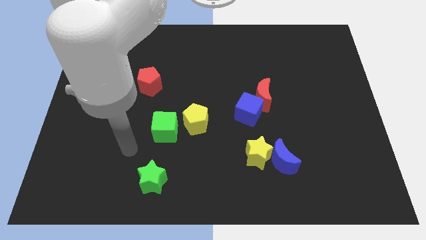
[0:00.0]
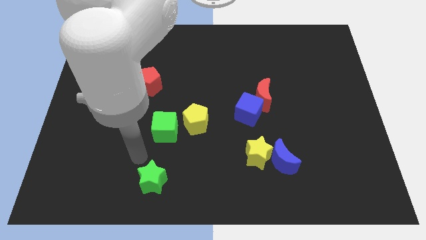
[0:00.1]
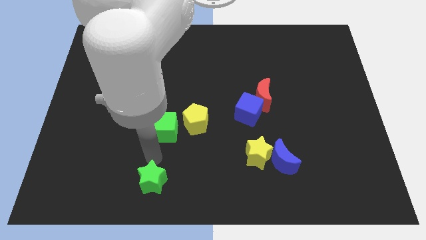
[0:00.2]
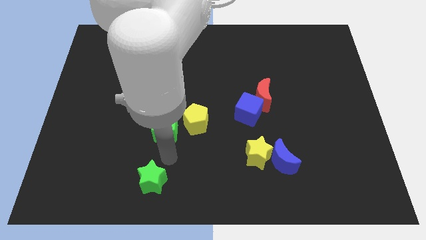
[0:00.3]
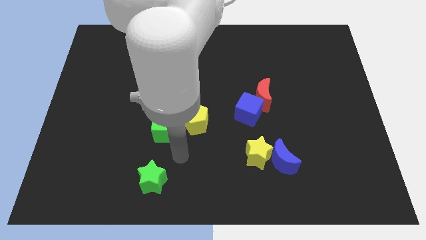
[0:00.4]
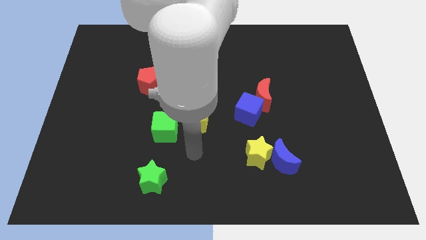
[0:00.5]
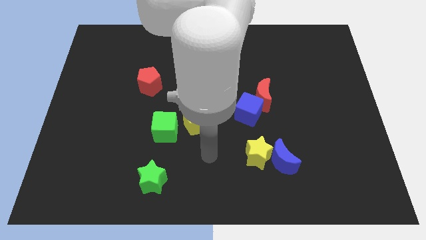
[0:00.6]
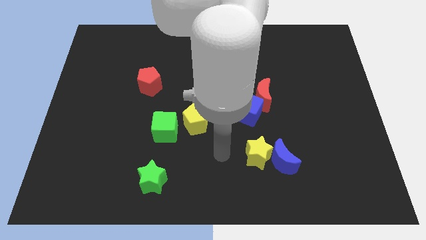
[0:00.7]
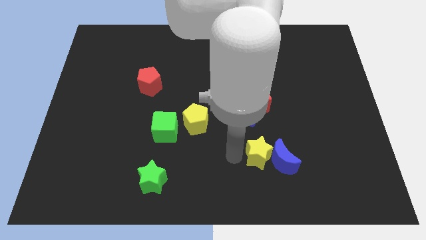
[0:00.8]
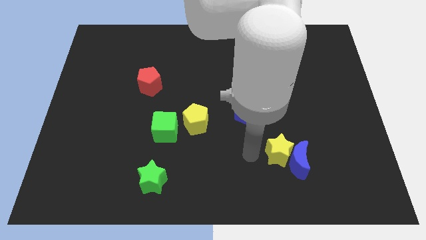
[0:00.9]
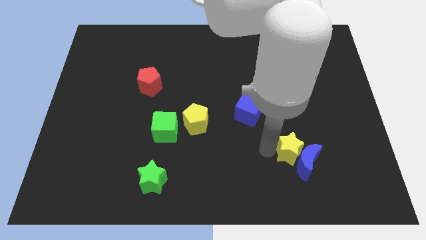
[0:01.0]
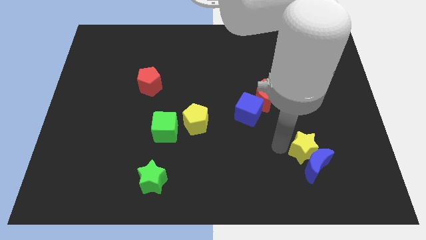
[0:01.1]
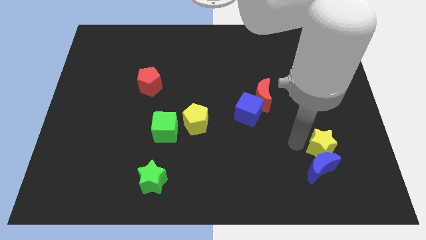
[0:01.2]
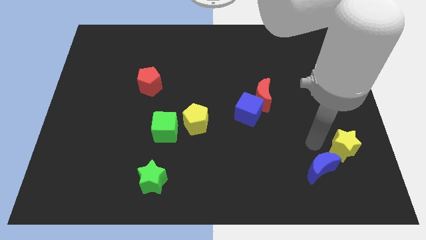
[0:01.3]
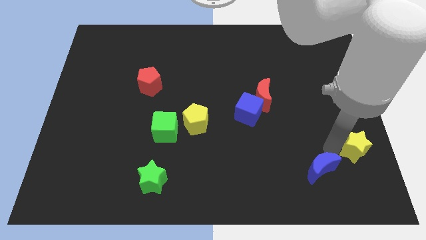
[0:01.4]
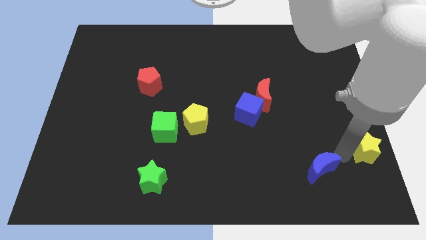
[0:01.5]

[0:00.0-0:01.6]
move the blue moon away from the yellow star

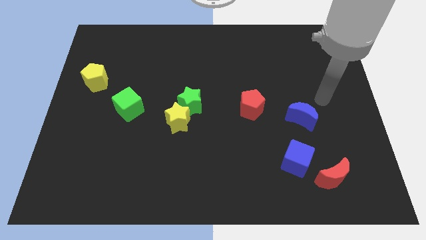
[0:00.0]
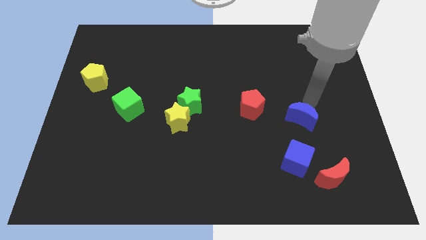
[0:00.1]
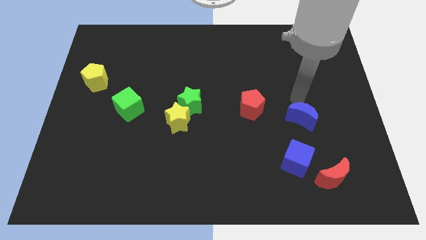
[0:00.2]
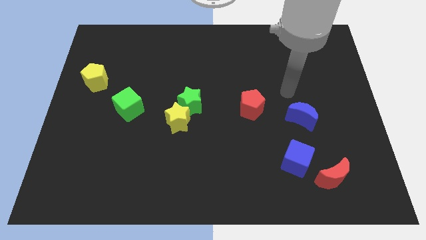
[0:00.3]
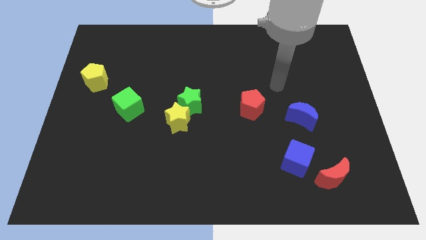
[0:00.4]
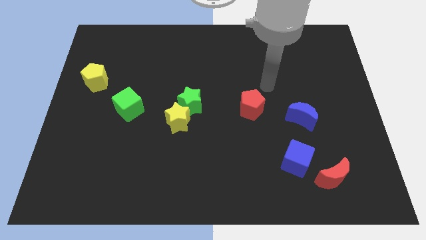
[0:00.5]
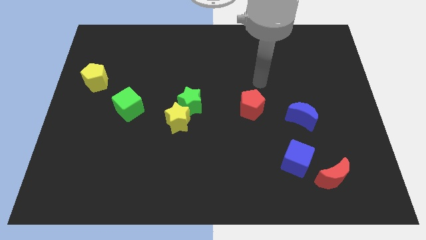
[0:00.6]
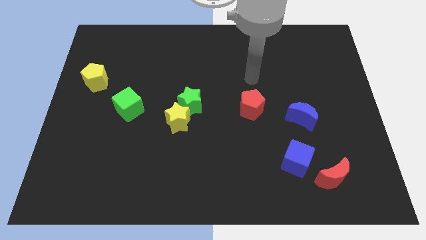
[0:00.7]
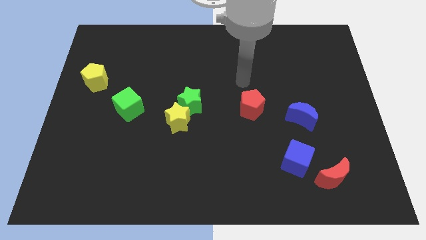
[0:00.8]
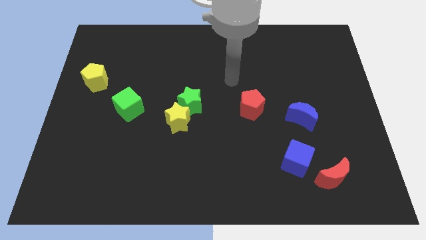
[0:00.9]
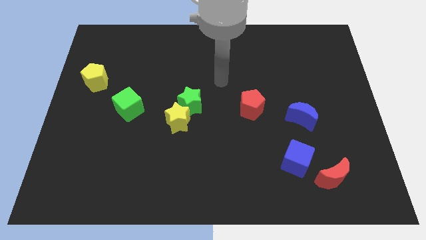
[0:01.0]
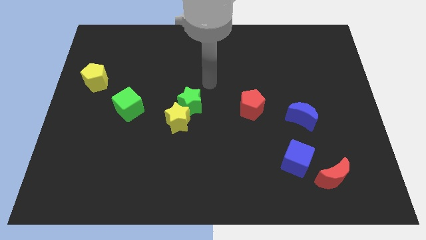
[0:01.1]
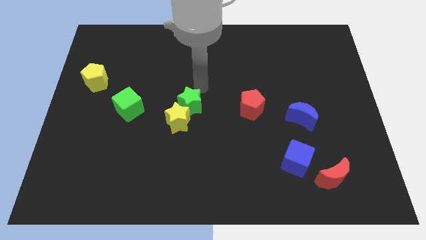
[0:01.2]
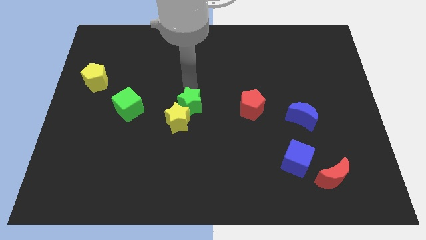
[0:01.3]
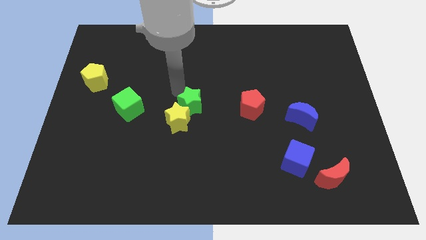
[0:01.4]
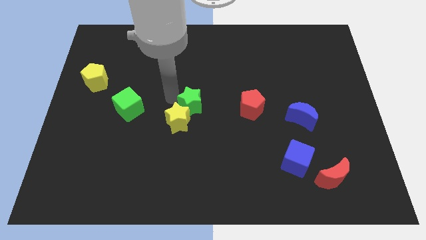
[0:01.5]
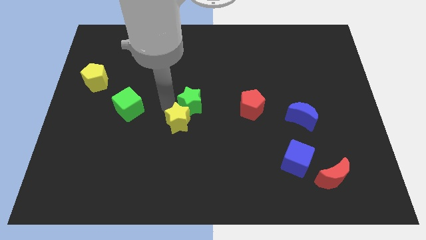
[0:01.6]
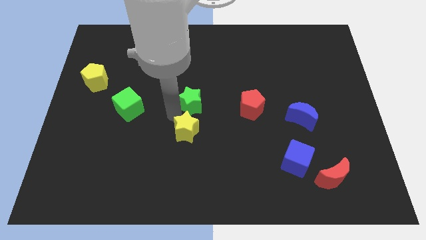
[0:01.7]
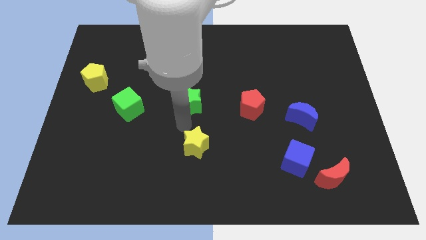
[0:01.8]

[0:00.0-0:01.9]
pull the green star apart from the yellow star

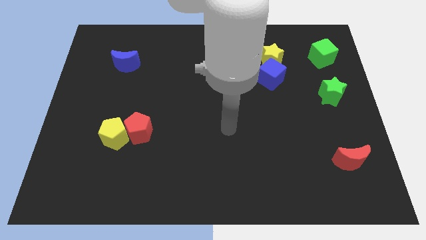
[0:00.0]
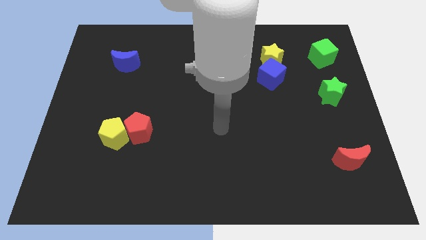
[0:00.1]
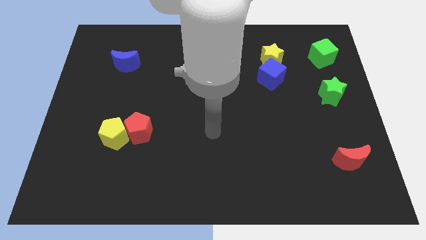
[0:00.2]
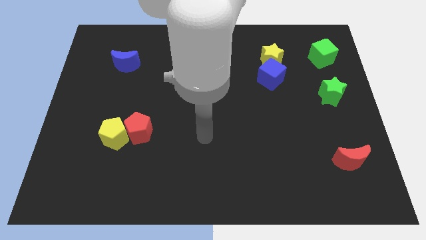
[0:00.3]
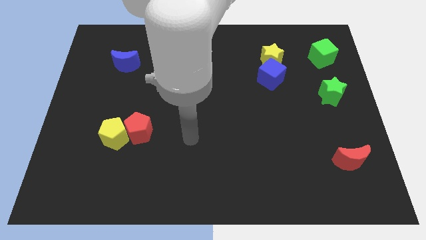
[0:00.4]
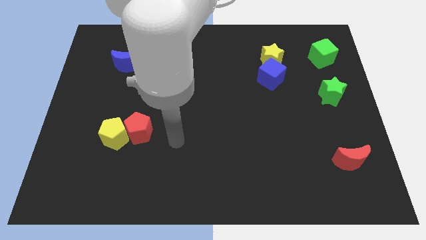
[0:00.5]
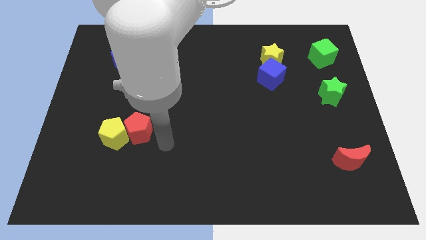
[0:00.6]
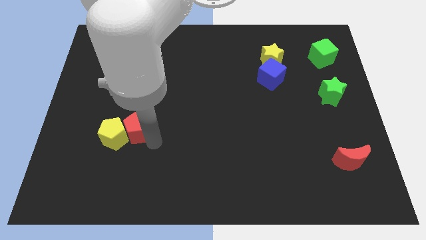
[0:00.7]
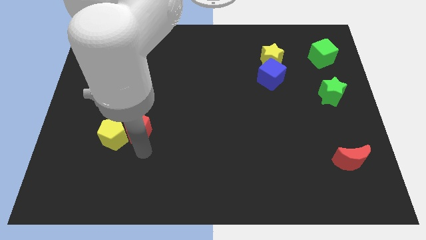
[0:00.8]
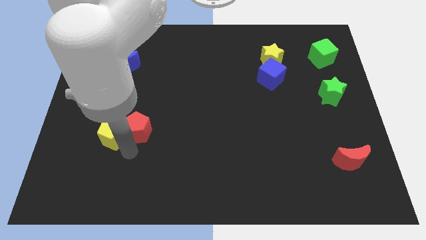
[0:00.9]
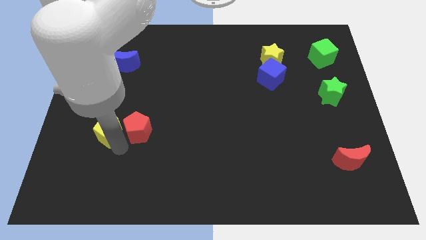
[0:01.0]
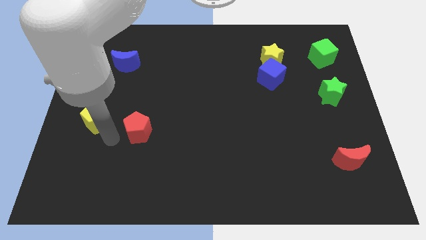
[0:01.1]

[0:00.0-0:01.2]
separate the red pentagon from the yellow pentagon

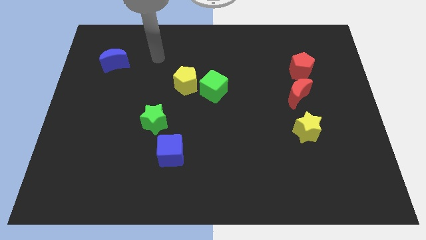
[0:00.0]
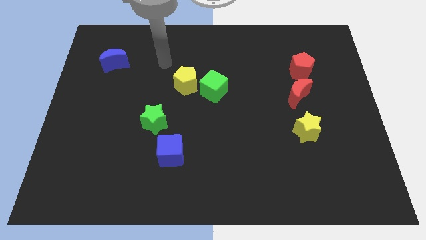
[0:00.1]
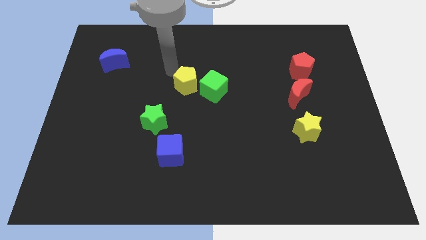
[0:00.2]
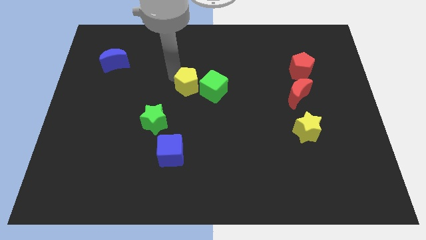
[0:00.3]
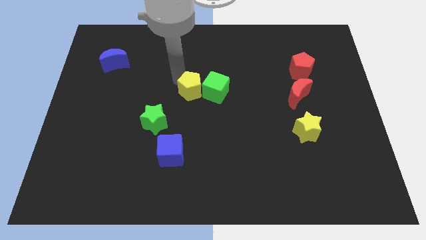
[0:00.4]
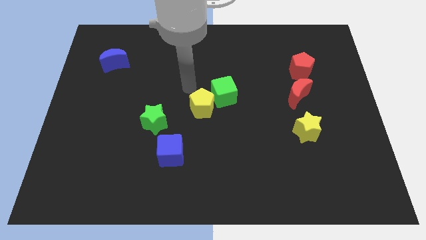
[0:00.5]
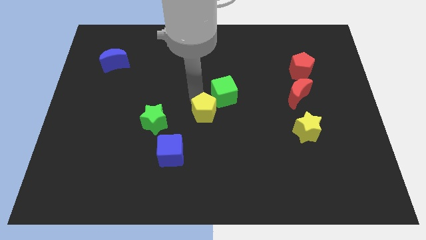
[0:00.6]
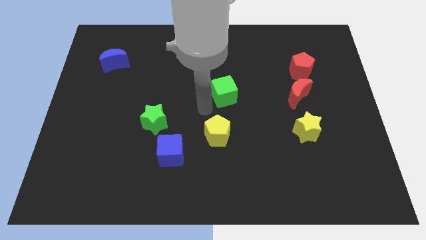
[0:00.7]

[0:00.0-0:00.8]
separate the green cube from the yellow pentagon

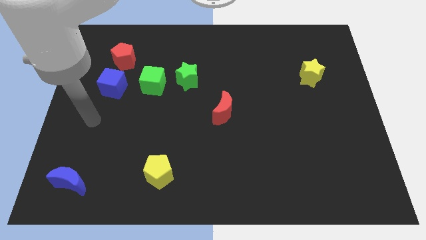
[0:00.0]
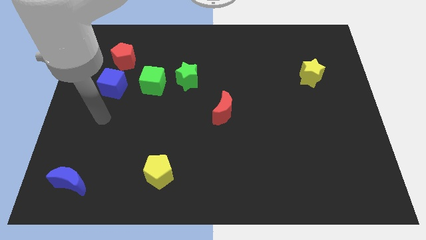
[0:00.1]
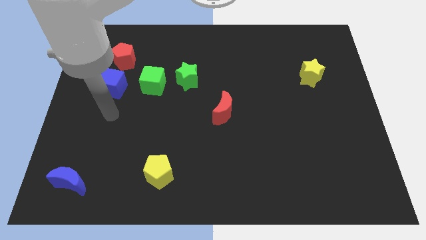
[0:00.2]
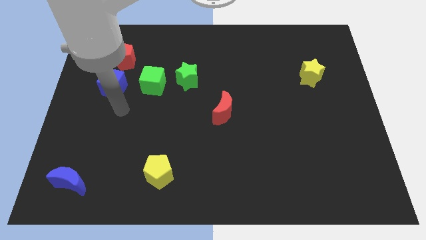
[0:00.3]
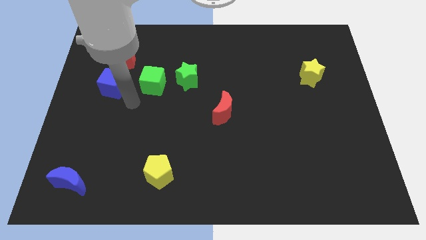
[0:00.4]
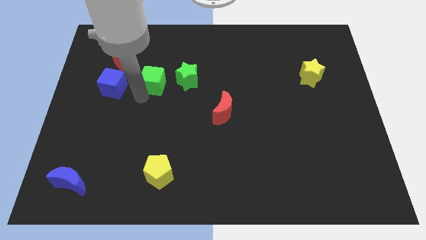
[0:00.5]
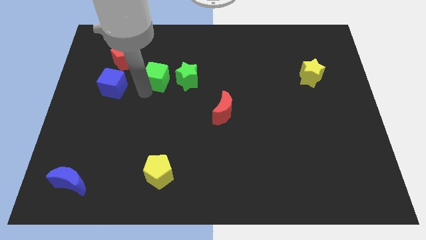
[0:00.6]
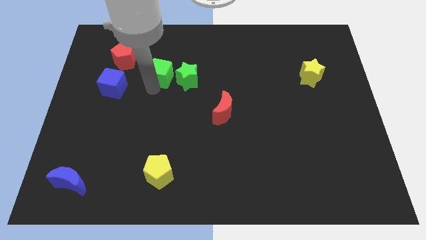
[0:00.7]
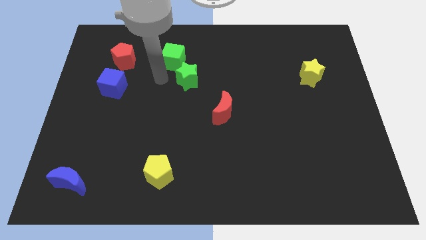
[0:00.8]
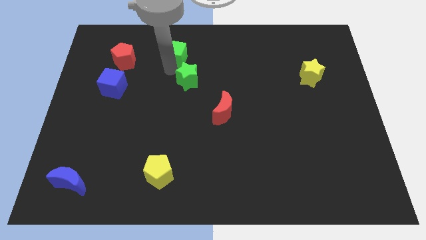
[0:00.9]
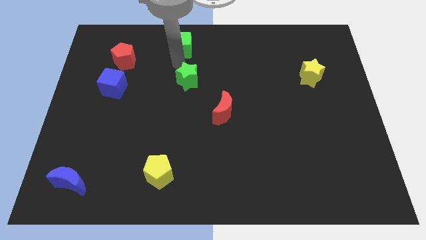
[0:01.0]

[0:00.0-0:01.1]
move the green star away from the green cube

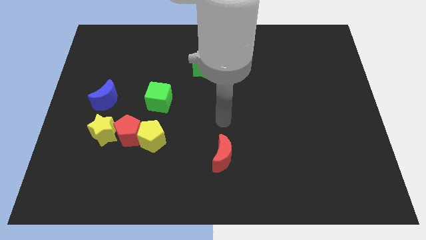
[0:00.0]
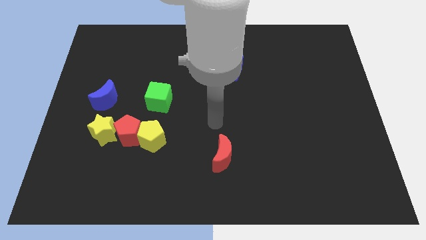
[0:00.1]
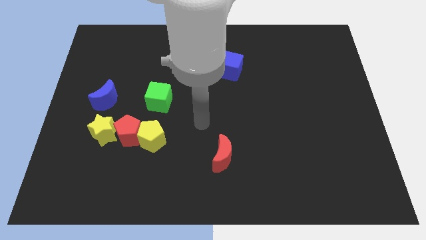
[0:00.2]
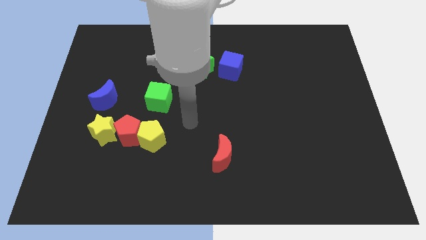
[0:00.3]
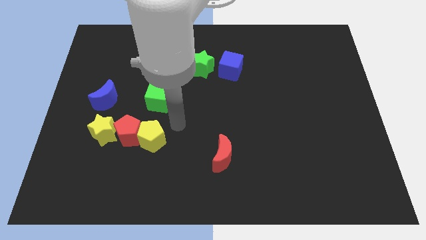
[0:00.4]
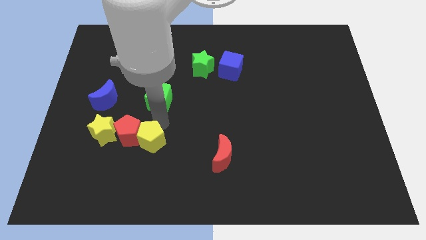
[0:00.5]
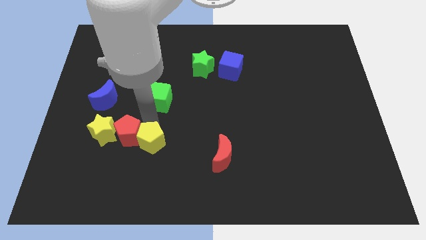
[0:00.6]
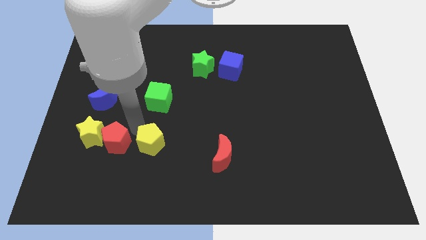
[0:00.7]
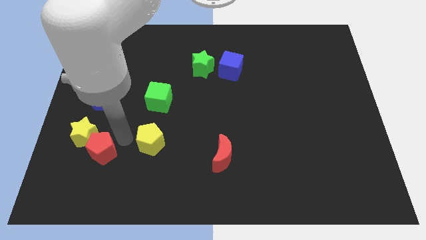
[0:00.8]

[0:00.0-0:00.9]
separate the yellow pentagon from the red pentagon

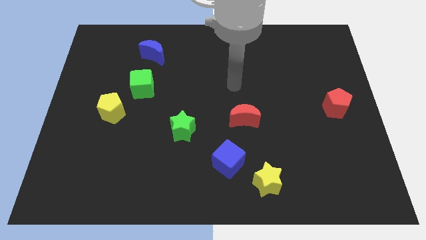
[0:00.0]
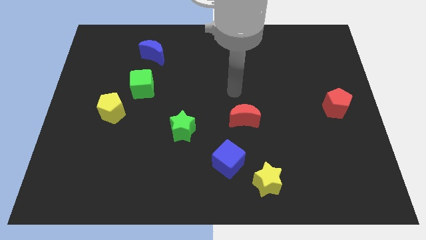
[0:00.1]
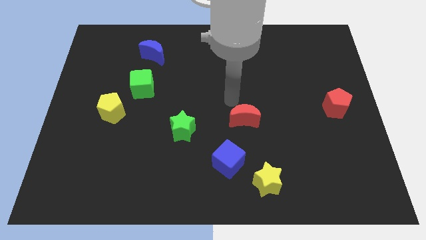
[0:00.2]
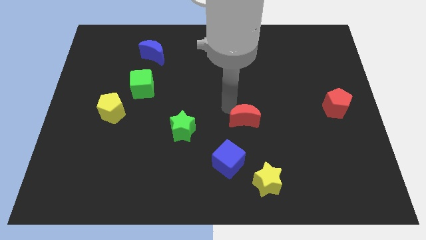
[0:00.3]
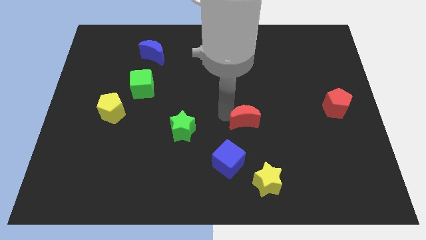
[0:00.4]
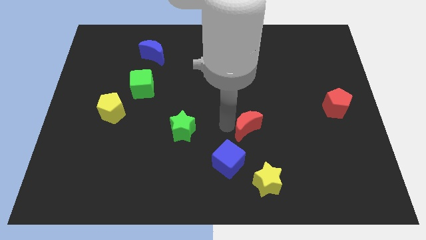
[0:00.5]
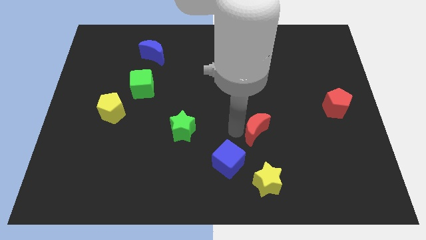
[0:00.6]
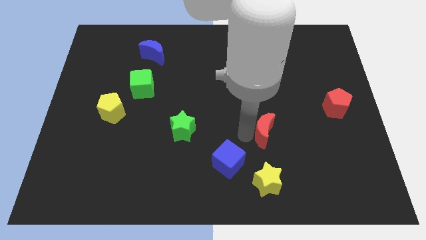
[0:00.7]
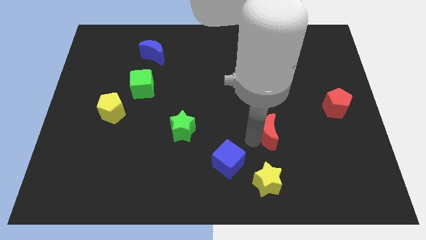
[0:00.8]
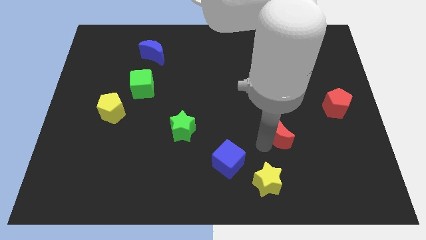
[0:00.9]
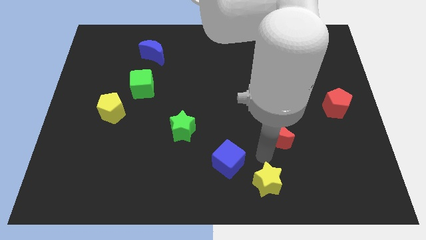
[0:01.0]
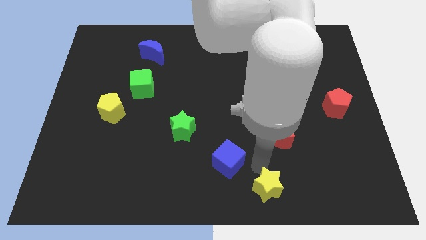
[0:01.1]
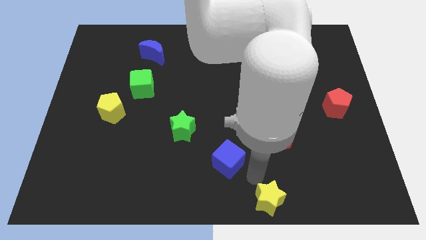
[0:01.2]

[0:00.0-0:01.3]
separate the blue cube from the yellow star

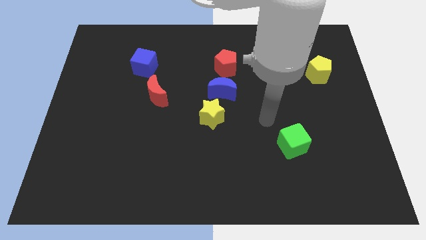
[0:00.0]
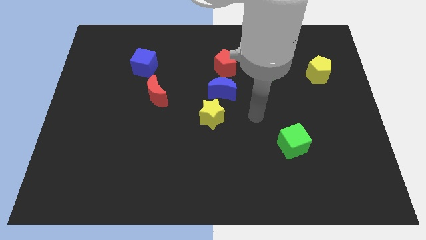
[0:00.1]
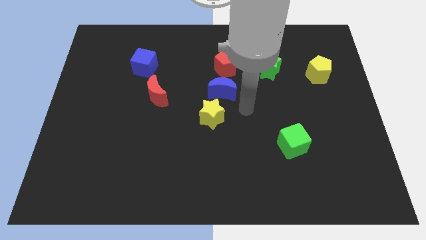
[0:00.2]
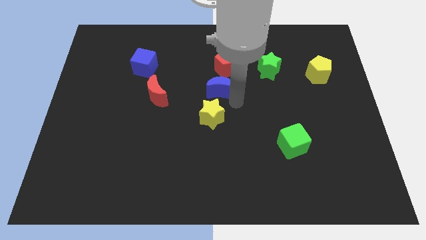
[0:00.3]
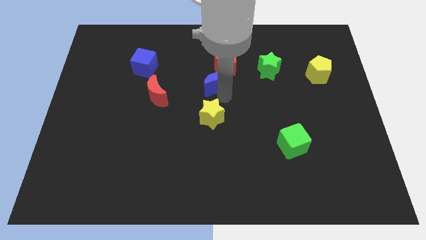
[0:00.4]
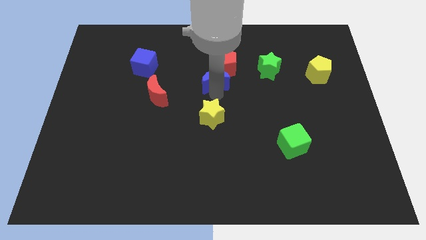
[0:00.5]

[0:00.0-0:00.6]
separate the yellow star from the blue moon
